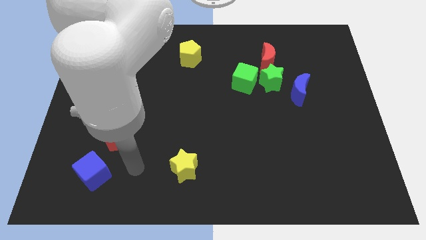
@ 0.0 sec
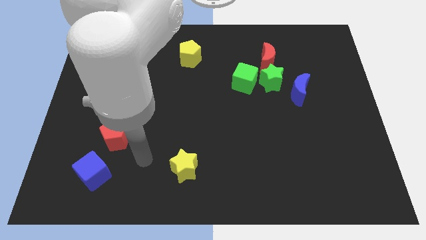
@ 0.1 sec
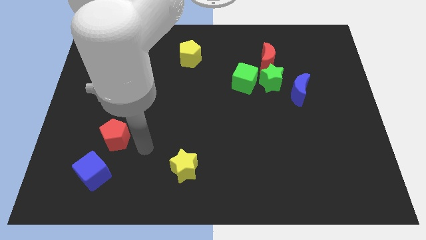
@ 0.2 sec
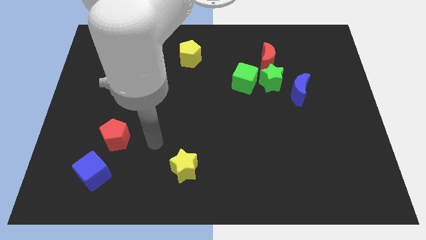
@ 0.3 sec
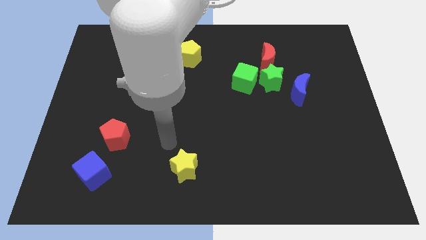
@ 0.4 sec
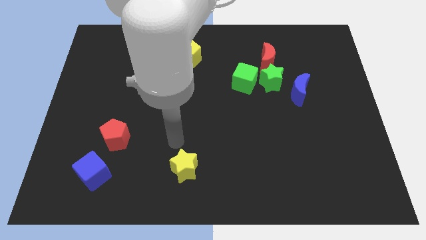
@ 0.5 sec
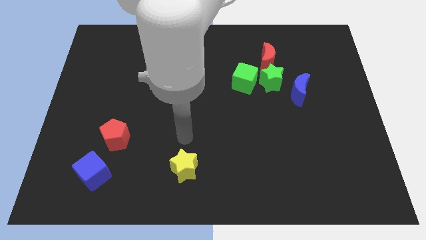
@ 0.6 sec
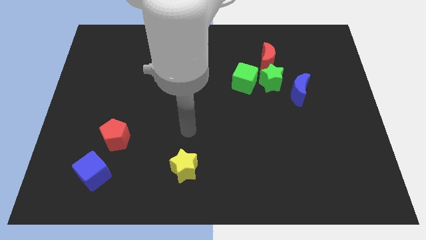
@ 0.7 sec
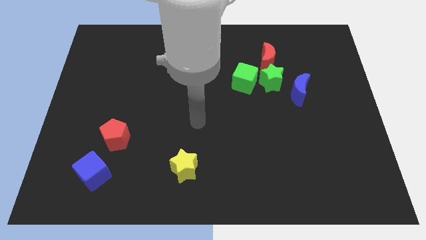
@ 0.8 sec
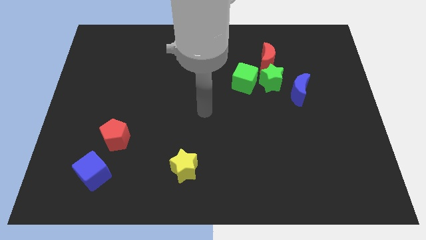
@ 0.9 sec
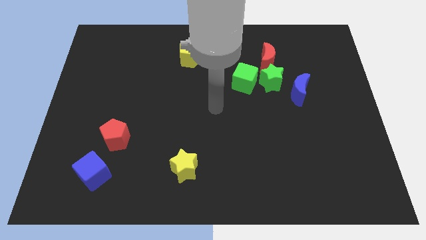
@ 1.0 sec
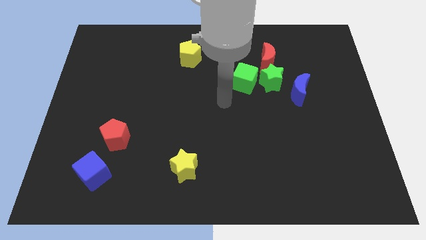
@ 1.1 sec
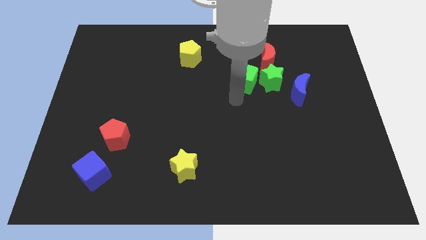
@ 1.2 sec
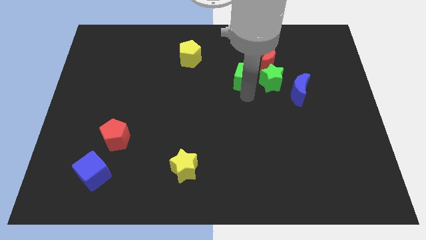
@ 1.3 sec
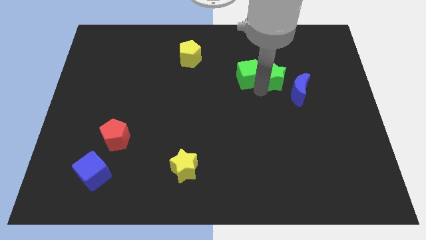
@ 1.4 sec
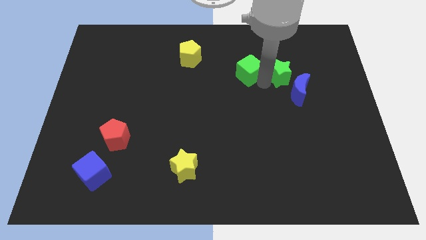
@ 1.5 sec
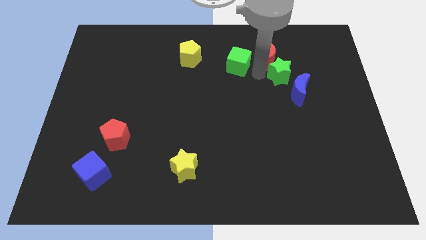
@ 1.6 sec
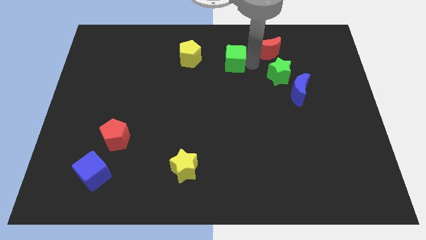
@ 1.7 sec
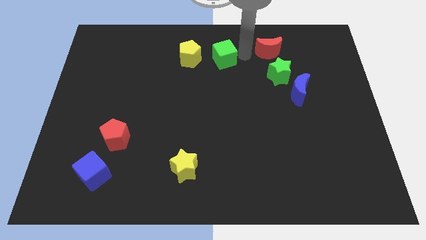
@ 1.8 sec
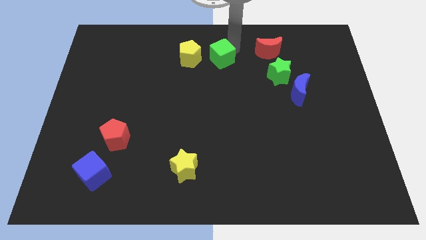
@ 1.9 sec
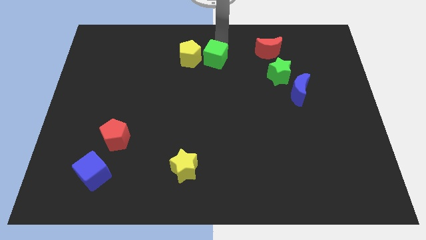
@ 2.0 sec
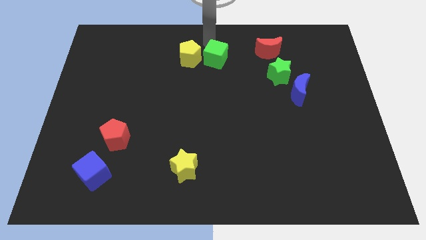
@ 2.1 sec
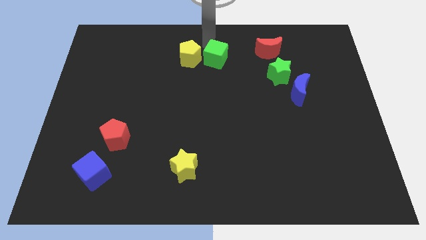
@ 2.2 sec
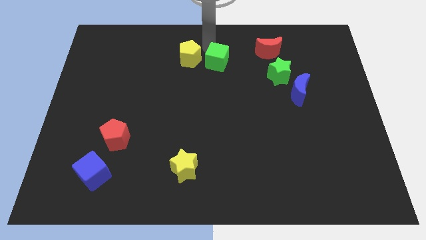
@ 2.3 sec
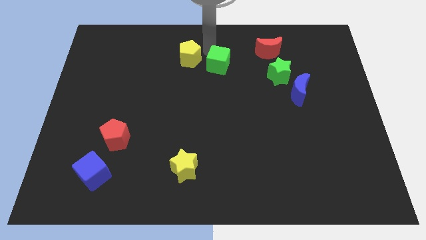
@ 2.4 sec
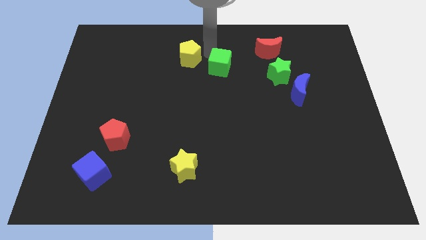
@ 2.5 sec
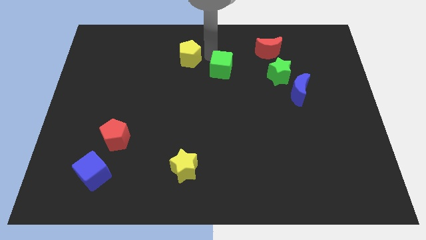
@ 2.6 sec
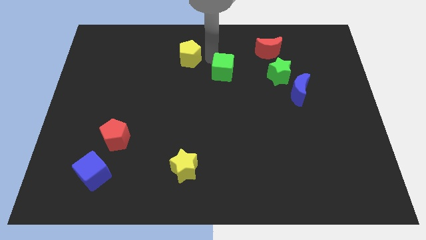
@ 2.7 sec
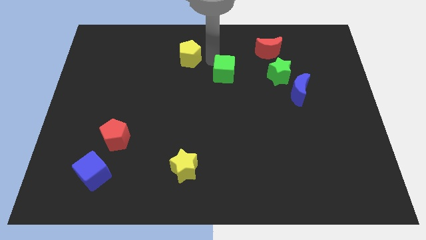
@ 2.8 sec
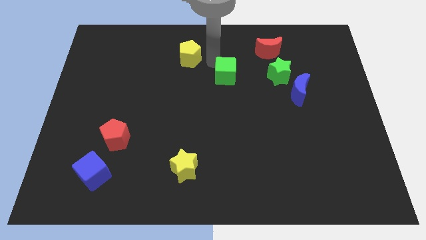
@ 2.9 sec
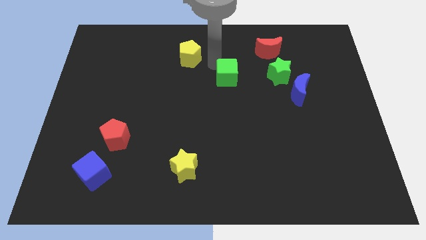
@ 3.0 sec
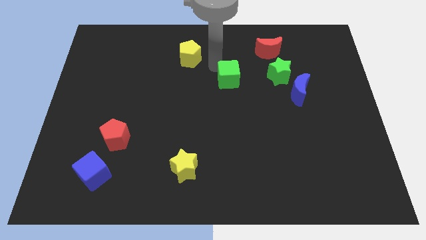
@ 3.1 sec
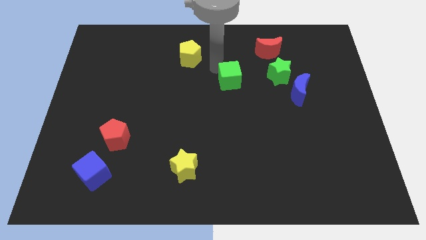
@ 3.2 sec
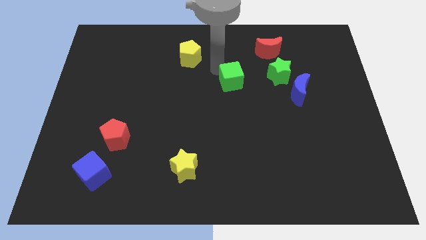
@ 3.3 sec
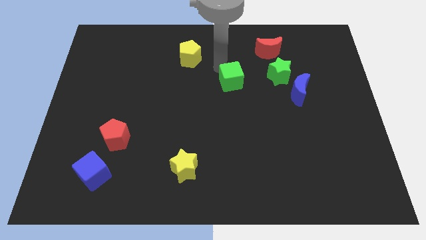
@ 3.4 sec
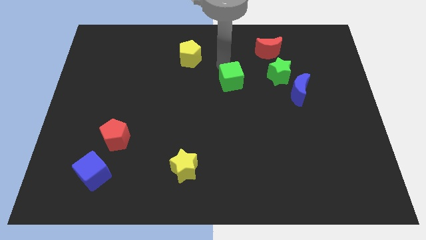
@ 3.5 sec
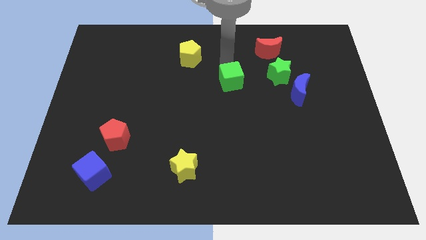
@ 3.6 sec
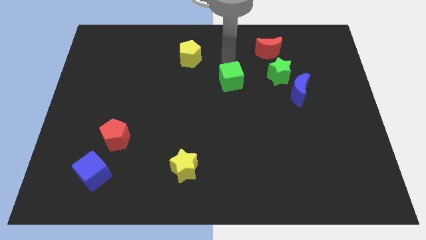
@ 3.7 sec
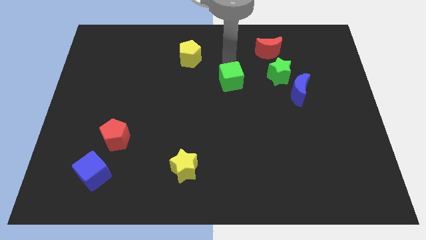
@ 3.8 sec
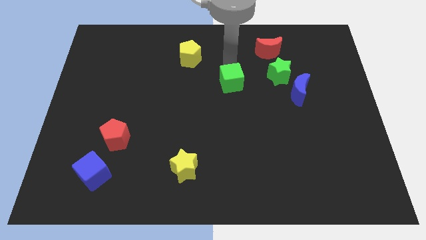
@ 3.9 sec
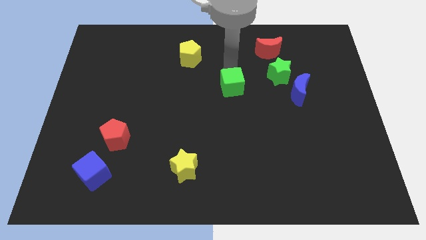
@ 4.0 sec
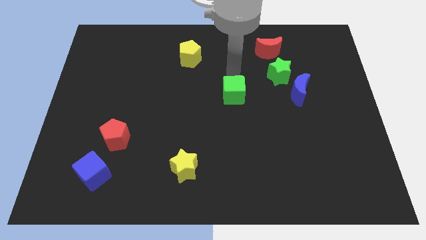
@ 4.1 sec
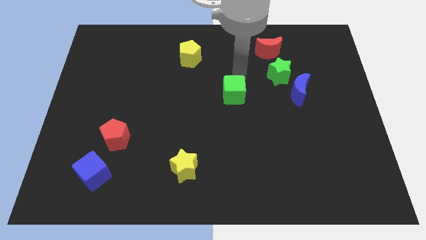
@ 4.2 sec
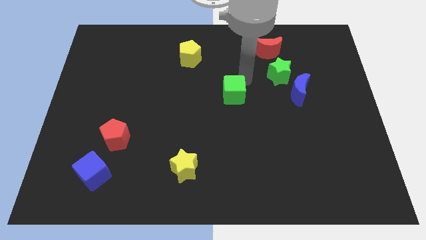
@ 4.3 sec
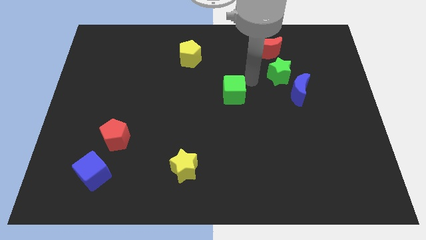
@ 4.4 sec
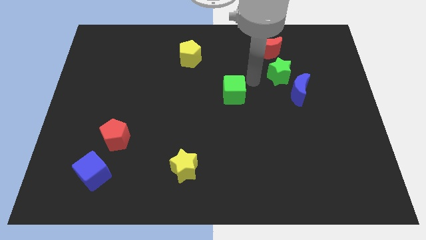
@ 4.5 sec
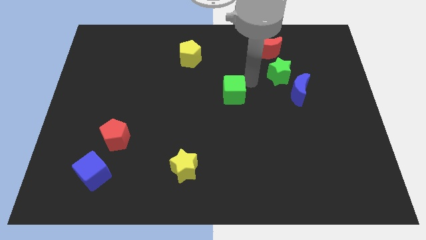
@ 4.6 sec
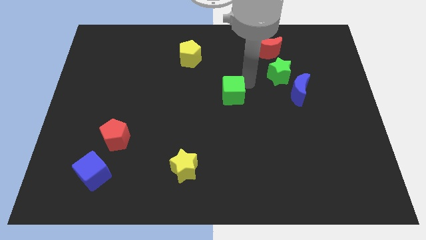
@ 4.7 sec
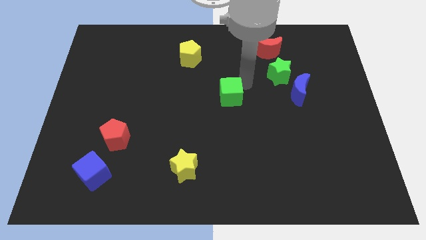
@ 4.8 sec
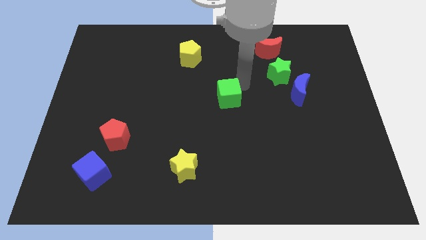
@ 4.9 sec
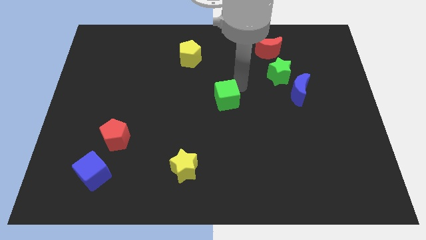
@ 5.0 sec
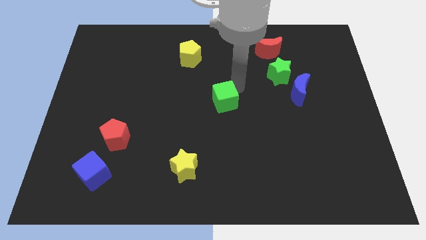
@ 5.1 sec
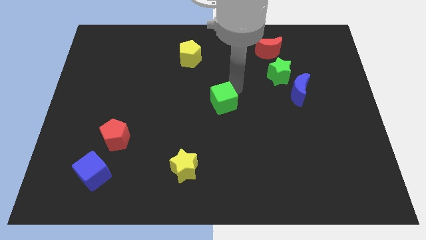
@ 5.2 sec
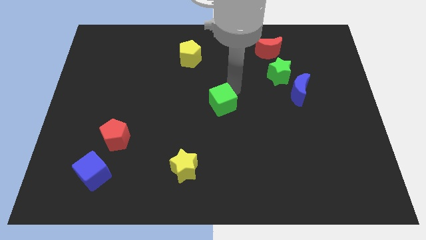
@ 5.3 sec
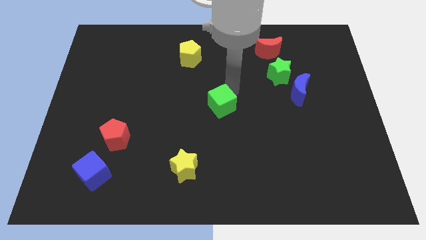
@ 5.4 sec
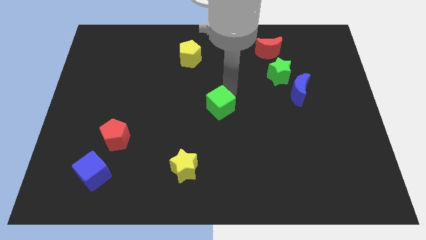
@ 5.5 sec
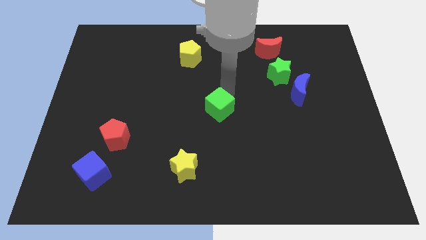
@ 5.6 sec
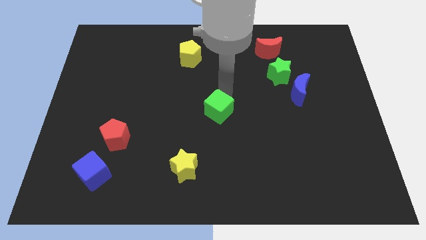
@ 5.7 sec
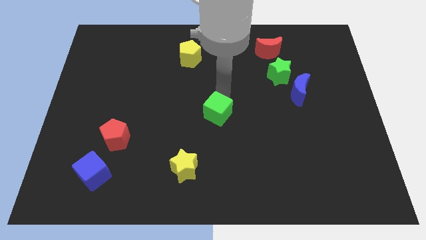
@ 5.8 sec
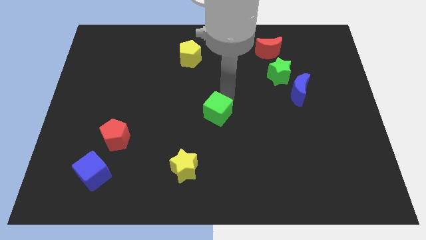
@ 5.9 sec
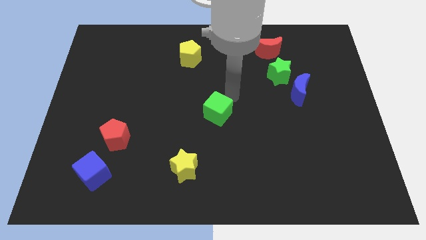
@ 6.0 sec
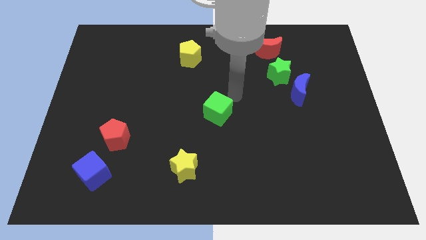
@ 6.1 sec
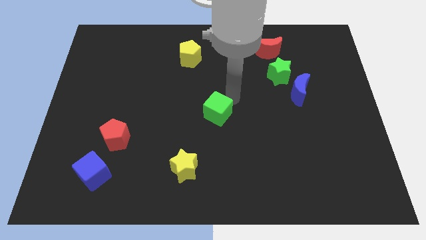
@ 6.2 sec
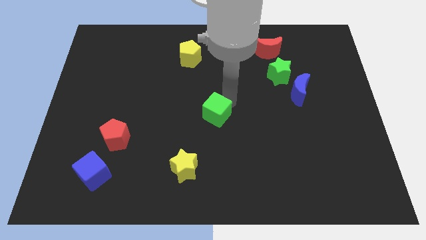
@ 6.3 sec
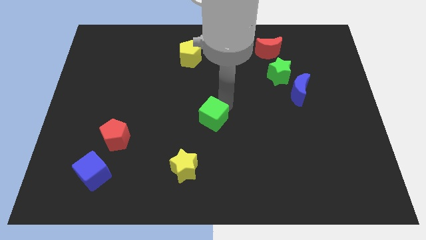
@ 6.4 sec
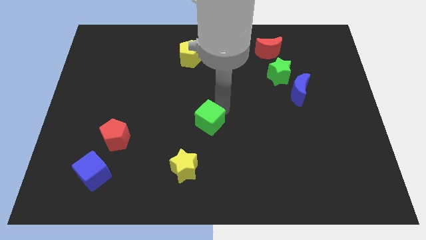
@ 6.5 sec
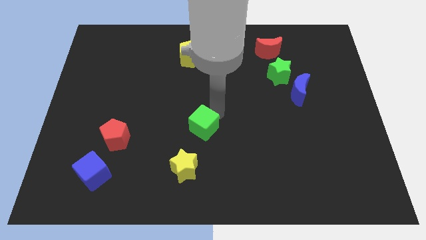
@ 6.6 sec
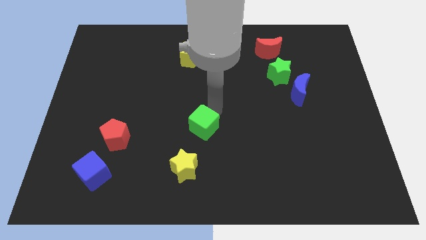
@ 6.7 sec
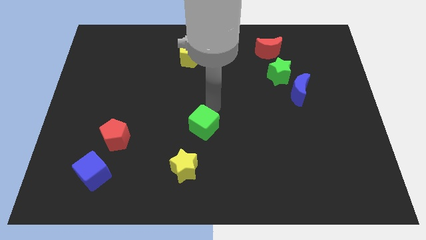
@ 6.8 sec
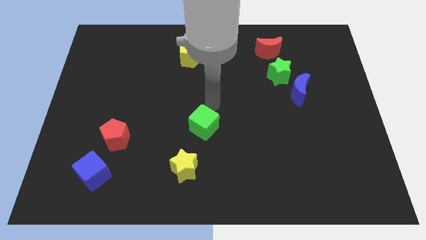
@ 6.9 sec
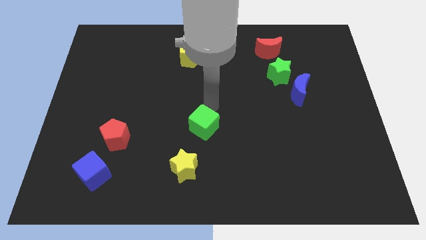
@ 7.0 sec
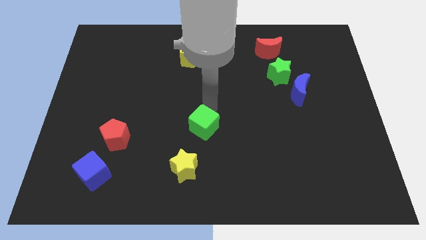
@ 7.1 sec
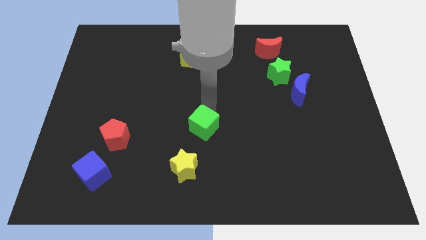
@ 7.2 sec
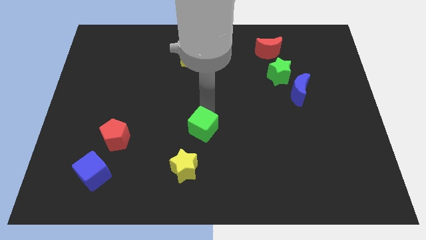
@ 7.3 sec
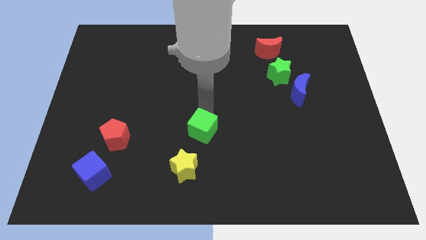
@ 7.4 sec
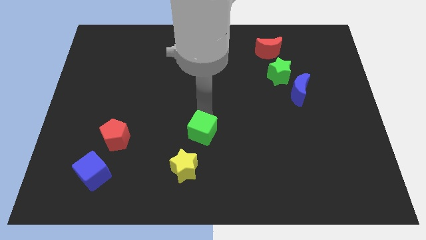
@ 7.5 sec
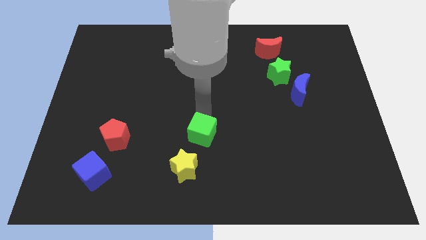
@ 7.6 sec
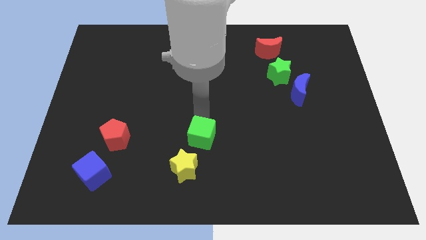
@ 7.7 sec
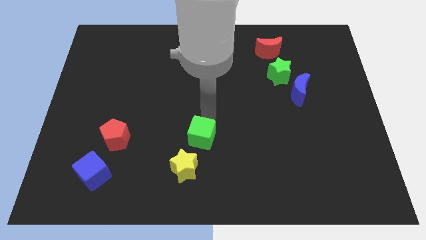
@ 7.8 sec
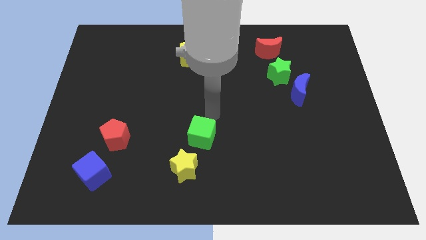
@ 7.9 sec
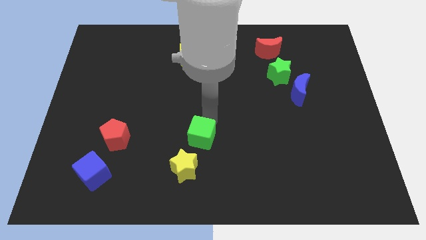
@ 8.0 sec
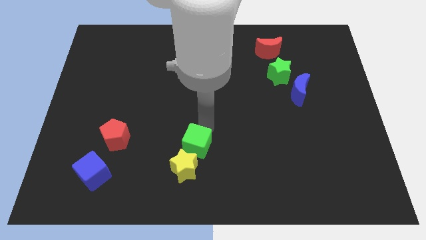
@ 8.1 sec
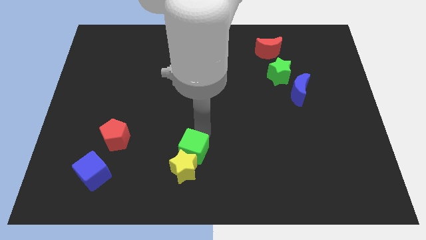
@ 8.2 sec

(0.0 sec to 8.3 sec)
put the green cube next to the yellow star
